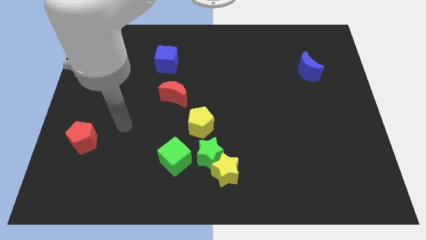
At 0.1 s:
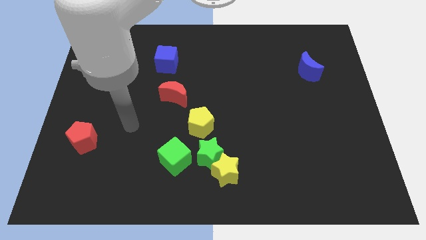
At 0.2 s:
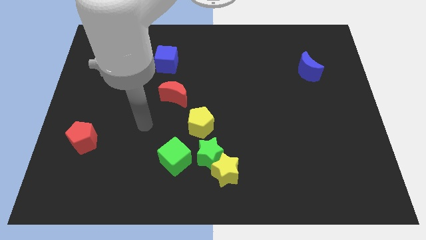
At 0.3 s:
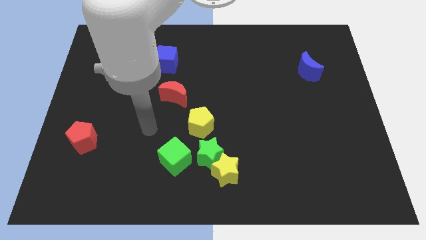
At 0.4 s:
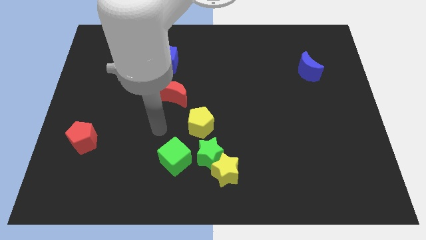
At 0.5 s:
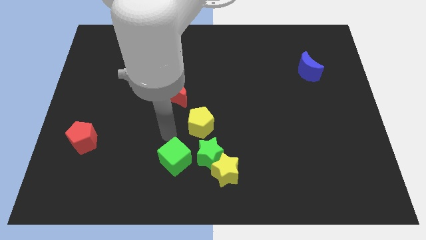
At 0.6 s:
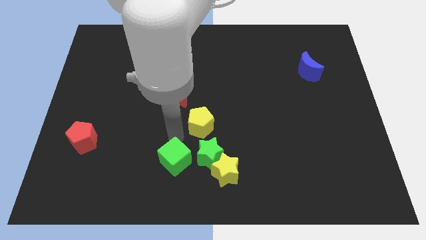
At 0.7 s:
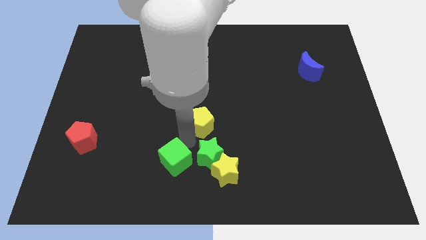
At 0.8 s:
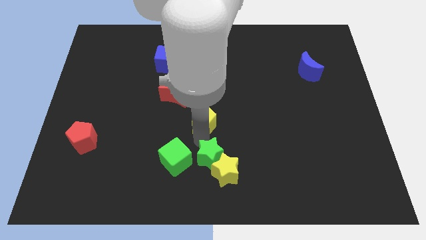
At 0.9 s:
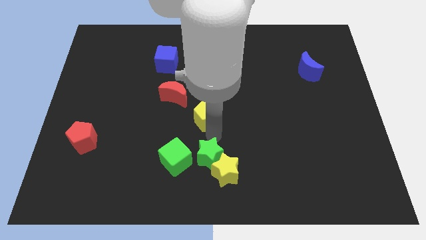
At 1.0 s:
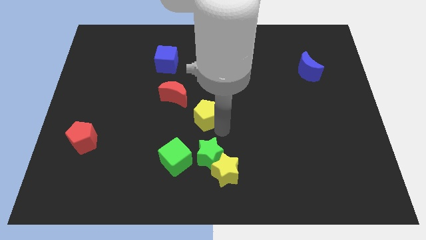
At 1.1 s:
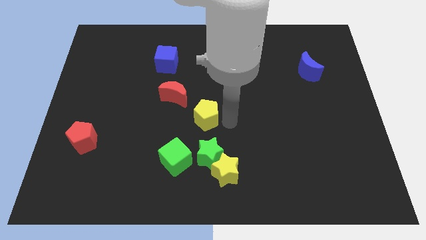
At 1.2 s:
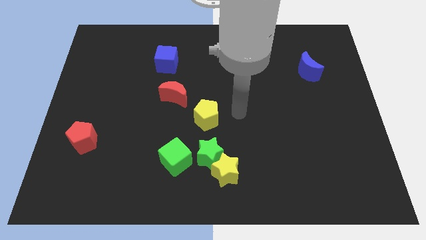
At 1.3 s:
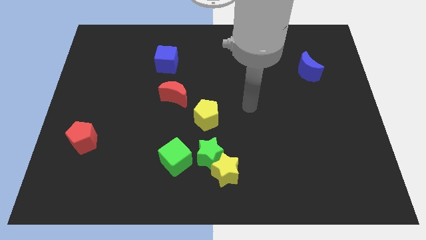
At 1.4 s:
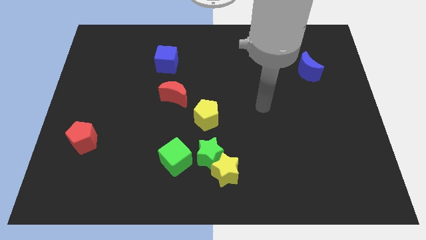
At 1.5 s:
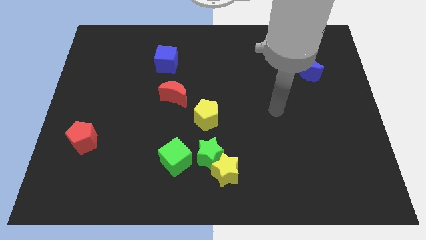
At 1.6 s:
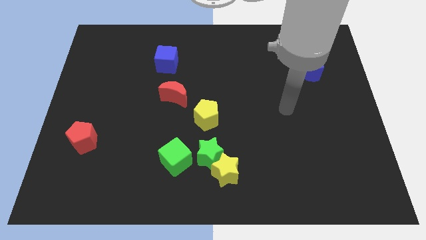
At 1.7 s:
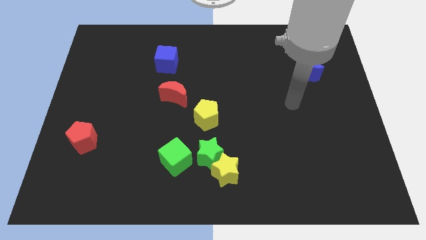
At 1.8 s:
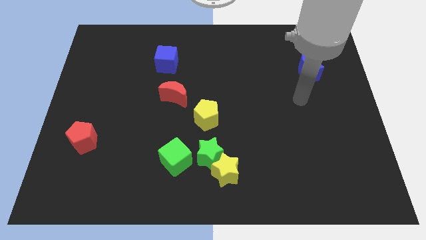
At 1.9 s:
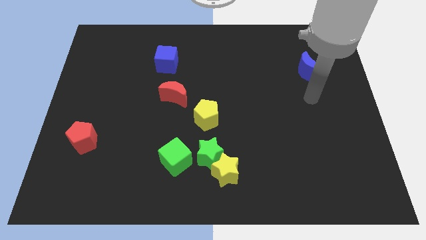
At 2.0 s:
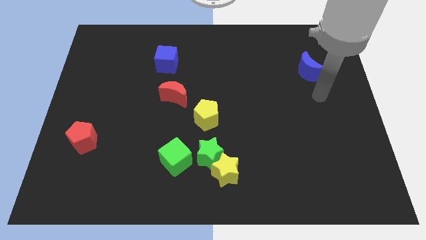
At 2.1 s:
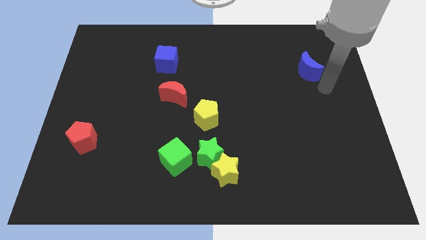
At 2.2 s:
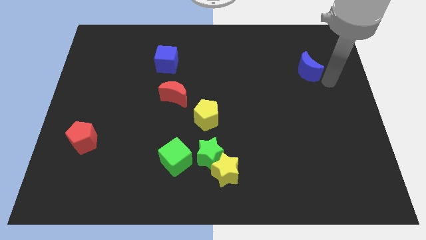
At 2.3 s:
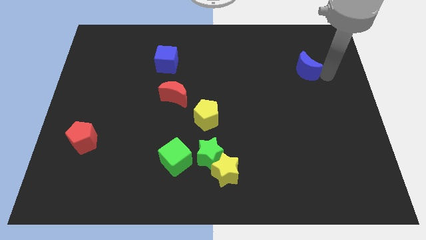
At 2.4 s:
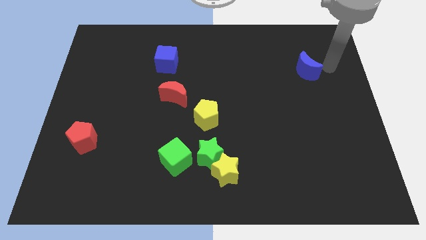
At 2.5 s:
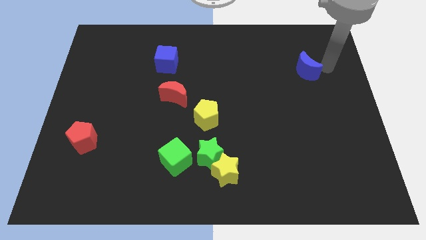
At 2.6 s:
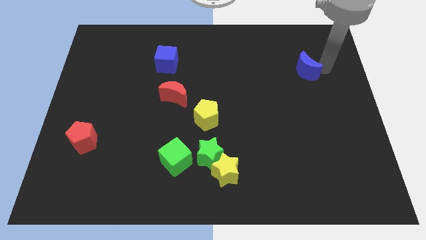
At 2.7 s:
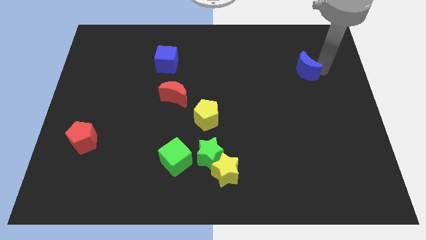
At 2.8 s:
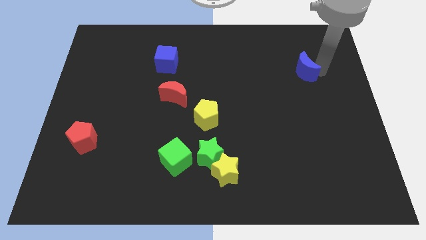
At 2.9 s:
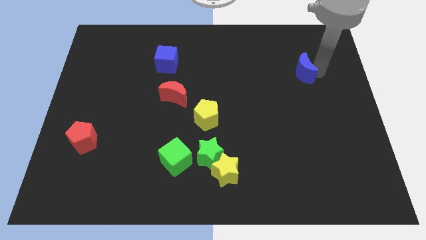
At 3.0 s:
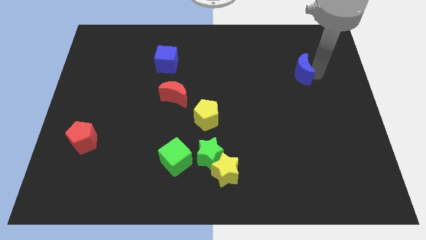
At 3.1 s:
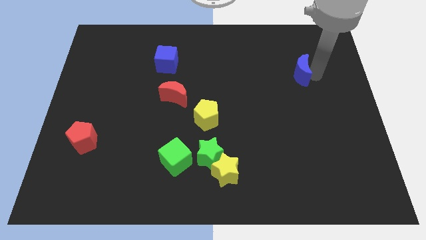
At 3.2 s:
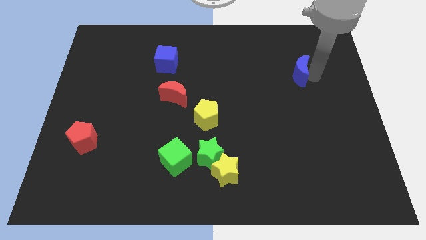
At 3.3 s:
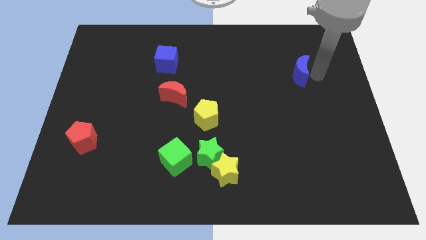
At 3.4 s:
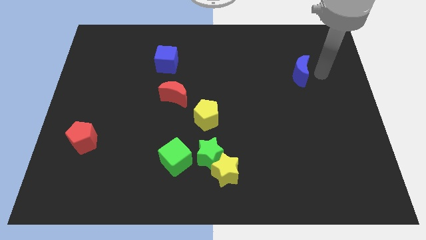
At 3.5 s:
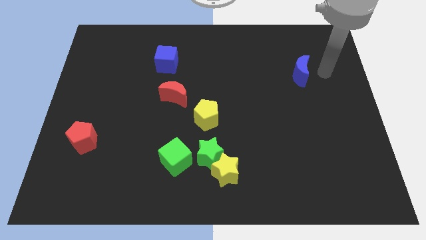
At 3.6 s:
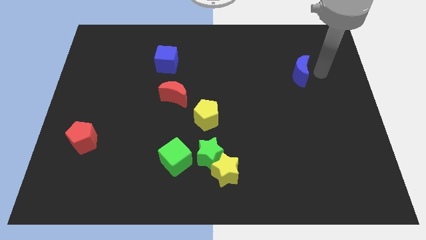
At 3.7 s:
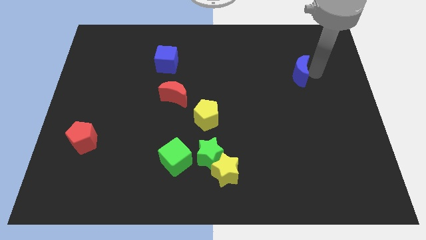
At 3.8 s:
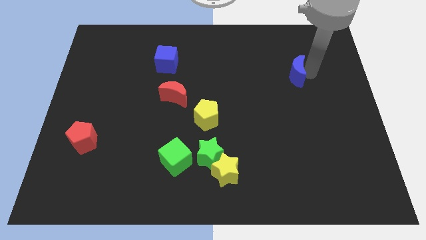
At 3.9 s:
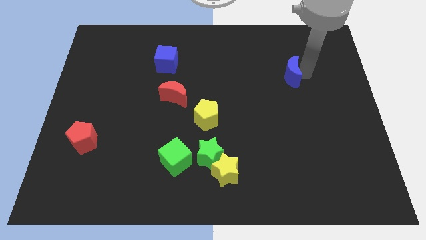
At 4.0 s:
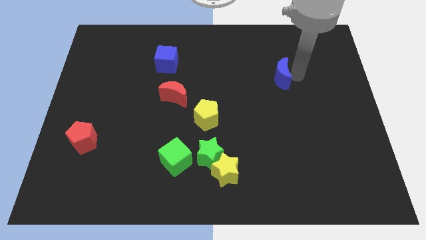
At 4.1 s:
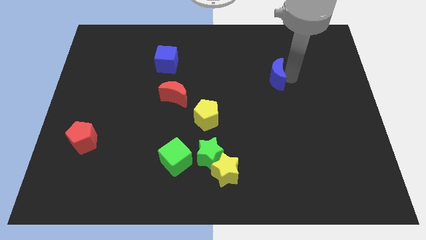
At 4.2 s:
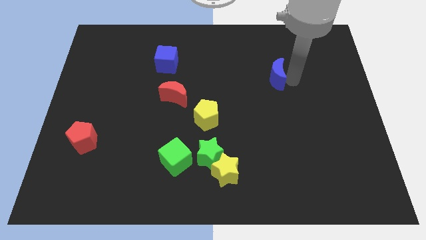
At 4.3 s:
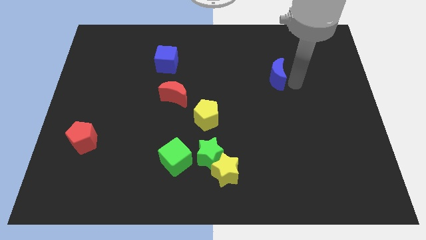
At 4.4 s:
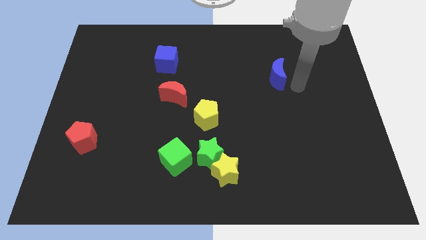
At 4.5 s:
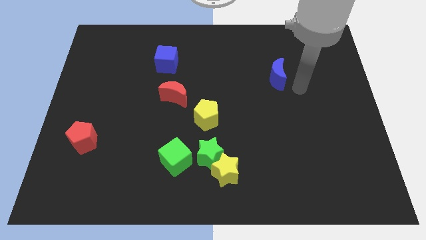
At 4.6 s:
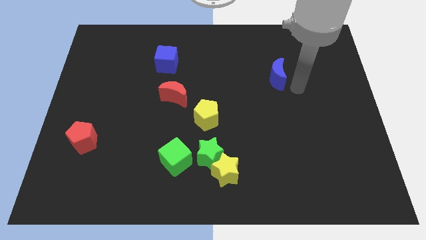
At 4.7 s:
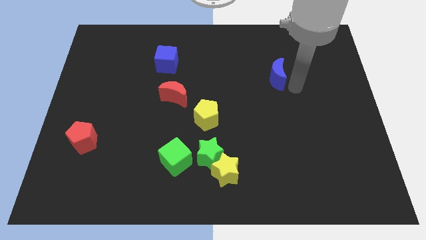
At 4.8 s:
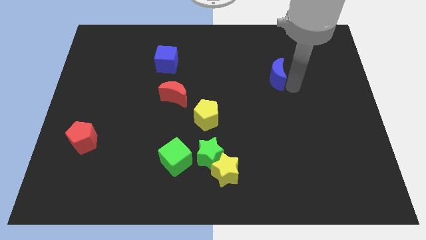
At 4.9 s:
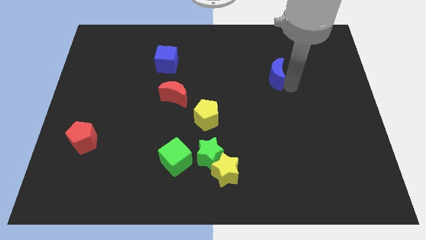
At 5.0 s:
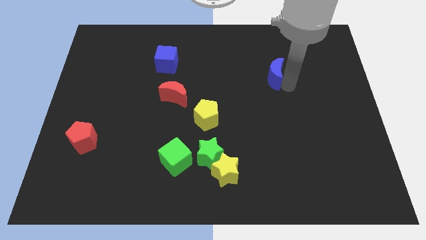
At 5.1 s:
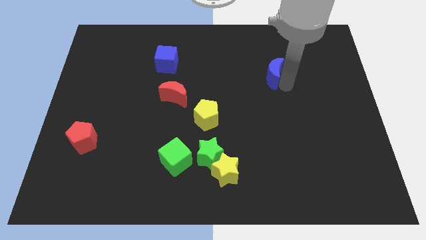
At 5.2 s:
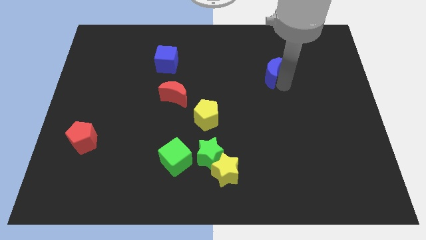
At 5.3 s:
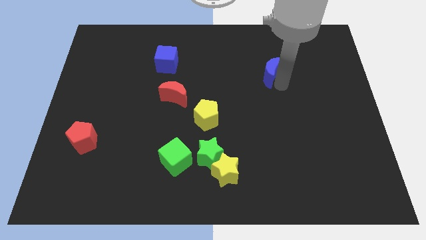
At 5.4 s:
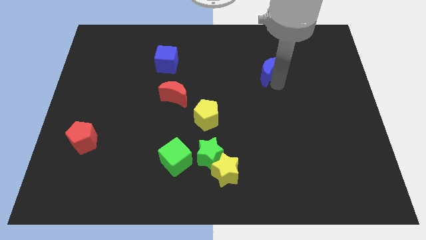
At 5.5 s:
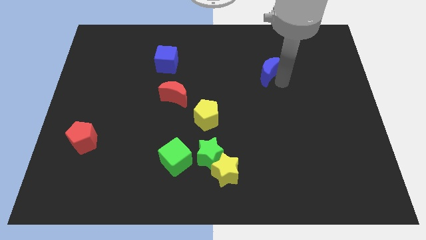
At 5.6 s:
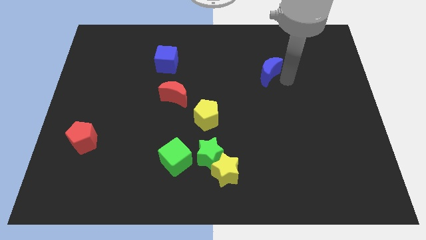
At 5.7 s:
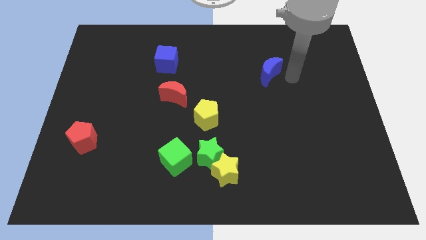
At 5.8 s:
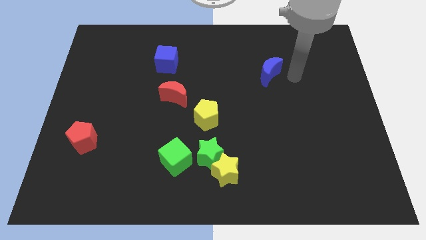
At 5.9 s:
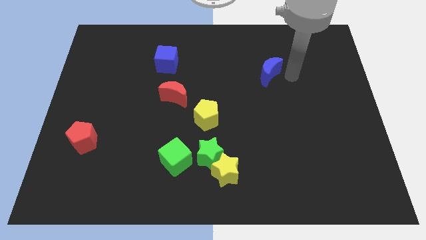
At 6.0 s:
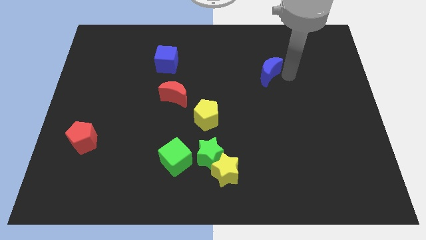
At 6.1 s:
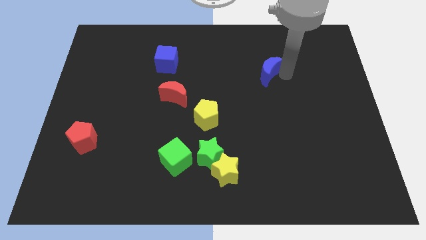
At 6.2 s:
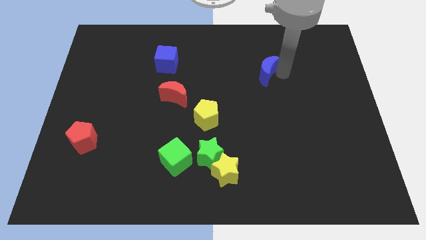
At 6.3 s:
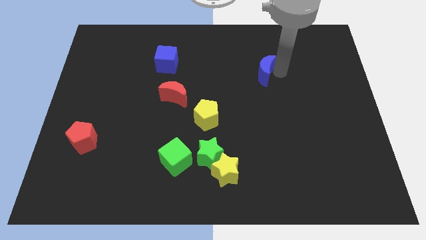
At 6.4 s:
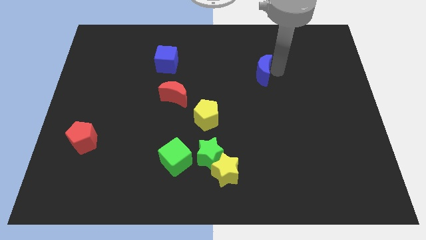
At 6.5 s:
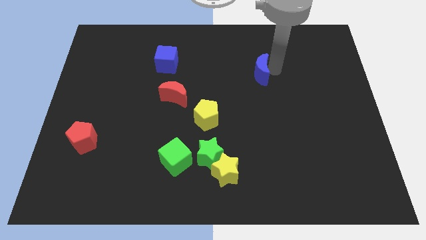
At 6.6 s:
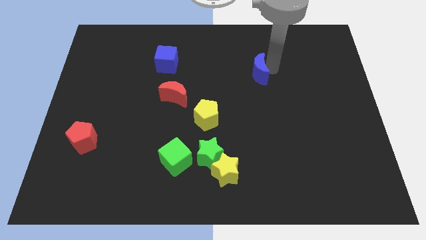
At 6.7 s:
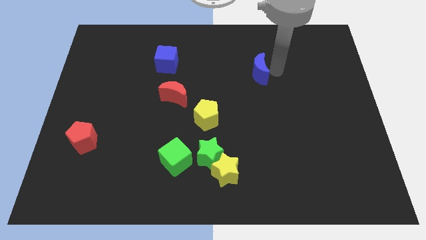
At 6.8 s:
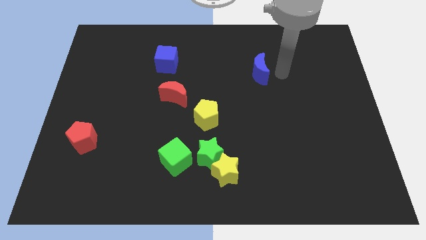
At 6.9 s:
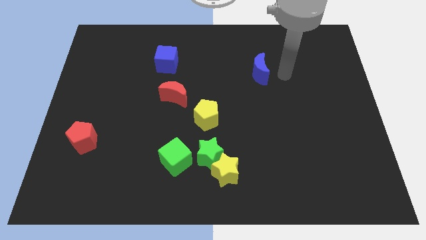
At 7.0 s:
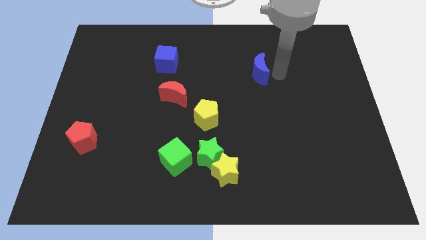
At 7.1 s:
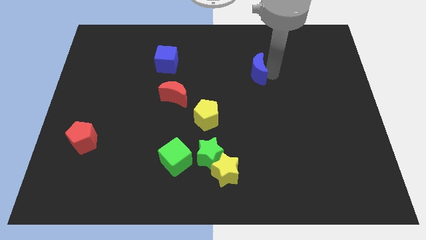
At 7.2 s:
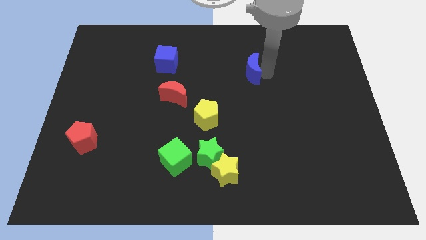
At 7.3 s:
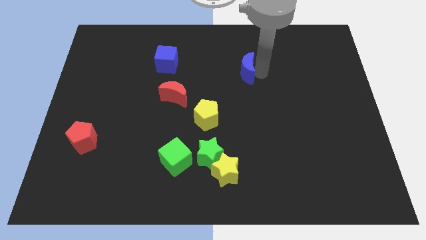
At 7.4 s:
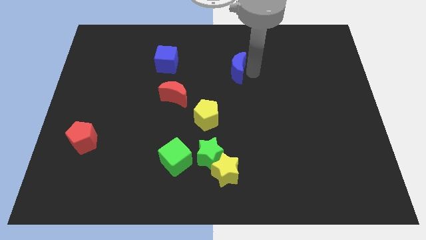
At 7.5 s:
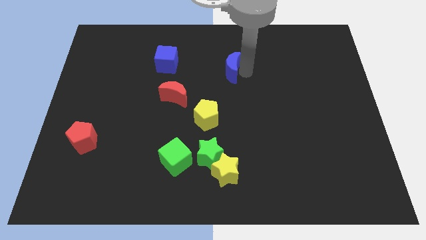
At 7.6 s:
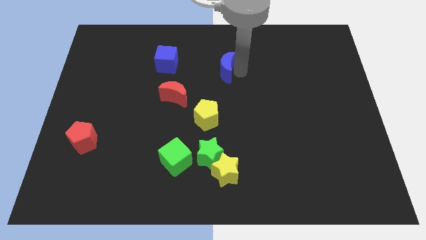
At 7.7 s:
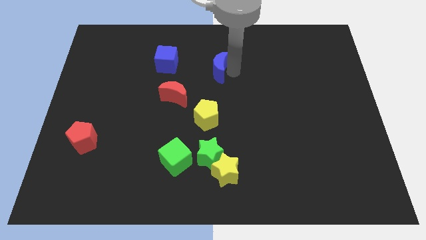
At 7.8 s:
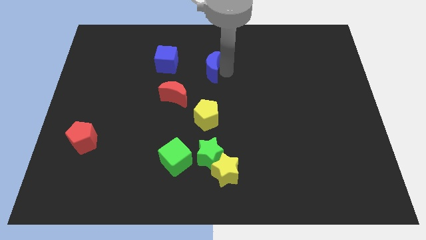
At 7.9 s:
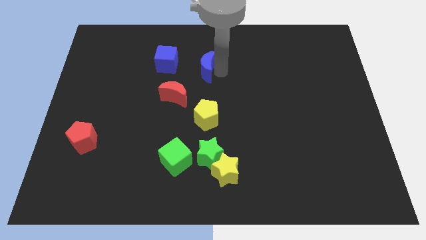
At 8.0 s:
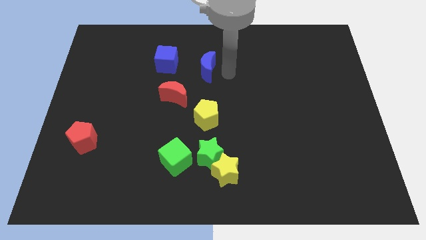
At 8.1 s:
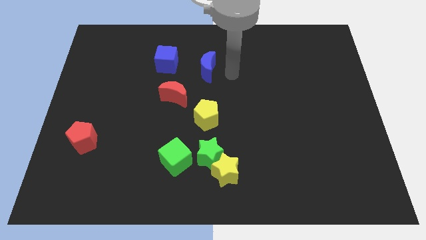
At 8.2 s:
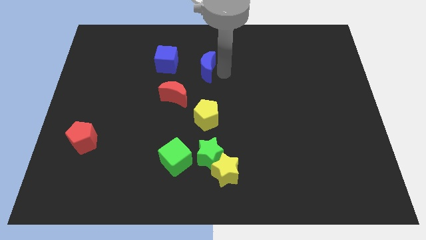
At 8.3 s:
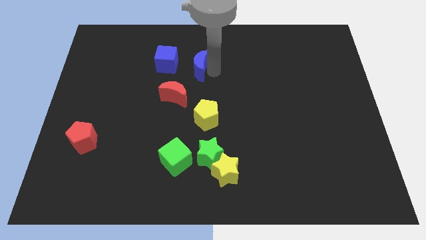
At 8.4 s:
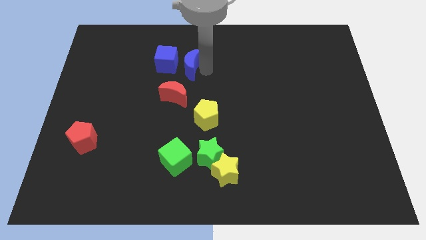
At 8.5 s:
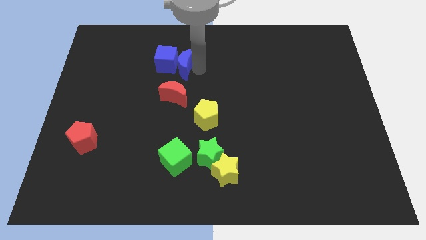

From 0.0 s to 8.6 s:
put the blue moon to the blue cube
